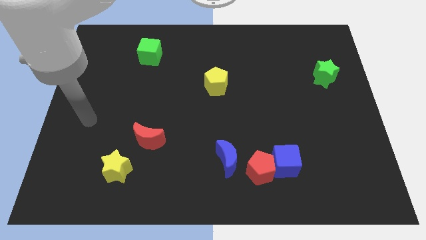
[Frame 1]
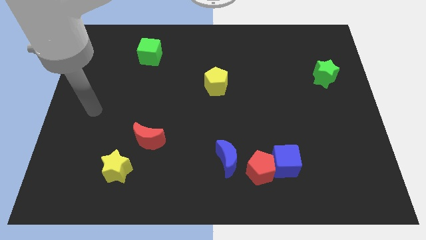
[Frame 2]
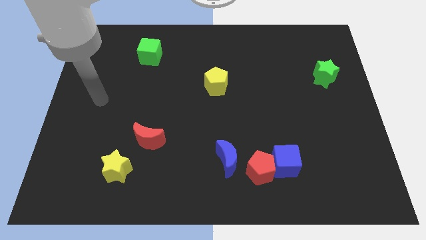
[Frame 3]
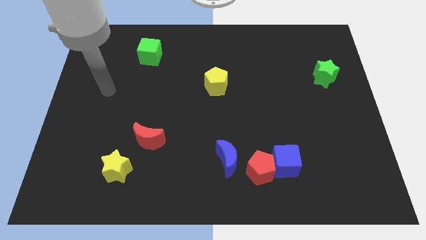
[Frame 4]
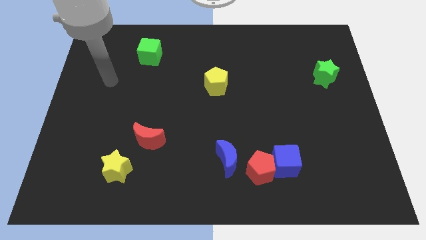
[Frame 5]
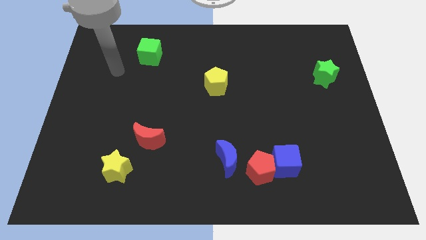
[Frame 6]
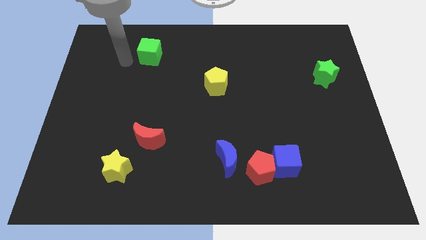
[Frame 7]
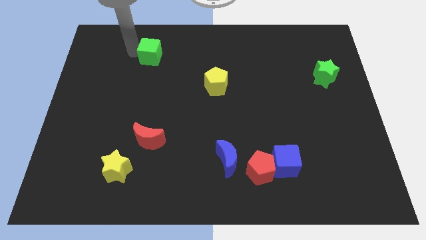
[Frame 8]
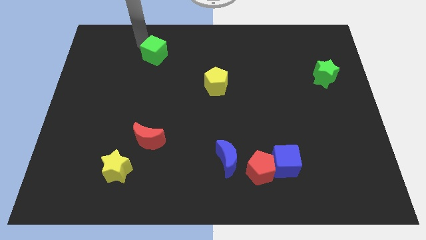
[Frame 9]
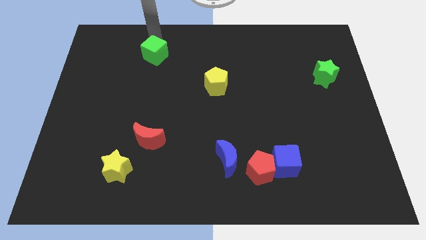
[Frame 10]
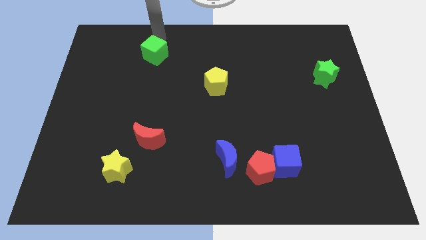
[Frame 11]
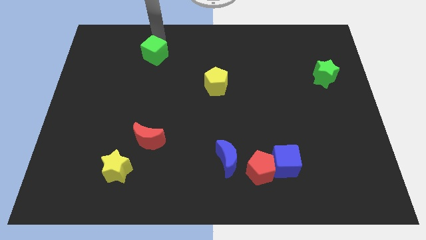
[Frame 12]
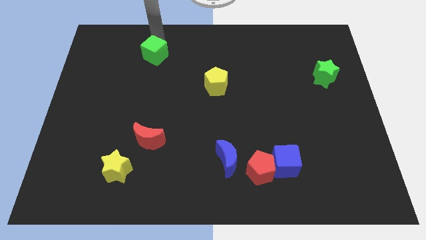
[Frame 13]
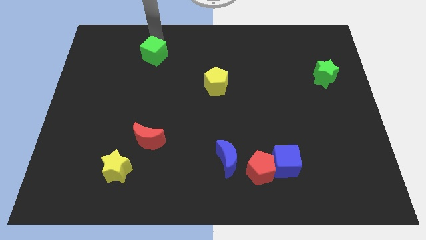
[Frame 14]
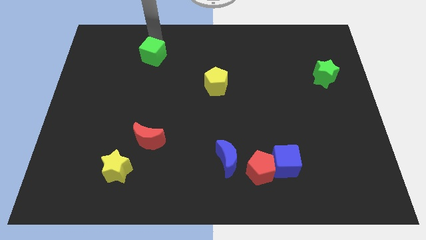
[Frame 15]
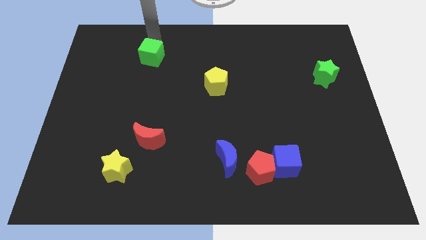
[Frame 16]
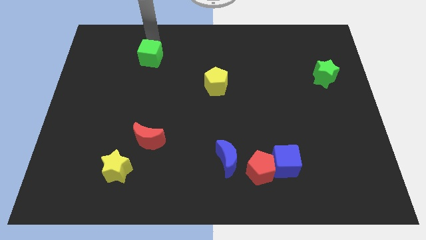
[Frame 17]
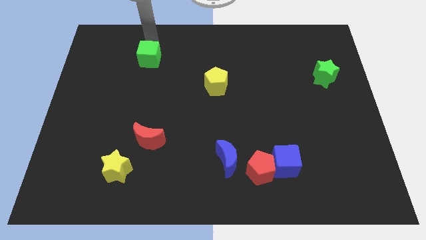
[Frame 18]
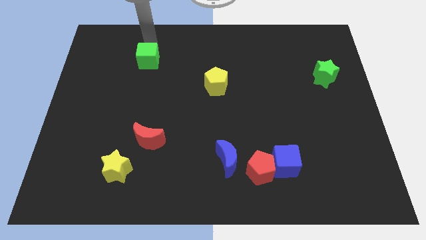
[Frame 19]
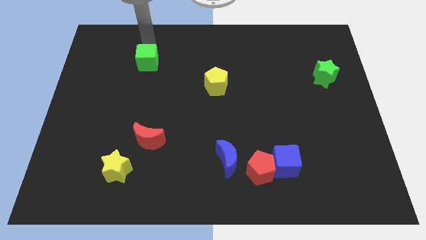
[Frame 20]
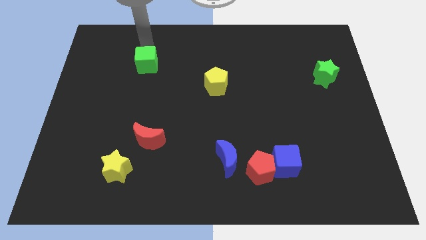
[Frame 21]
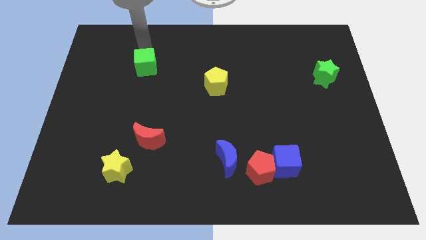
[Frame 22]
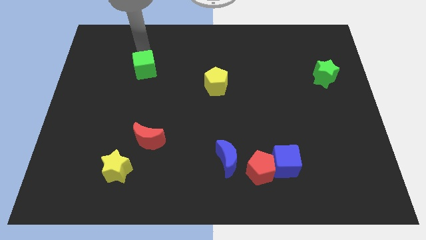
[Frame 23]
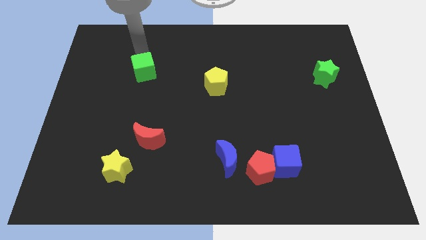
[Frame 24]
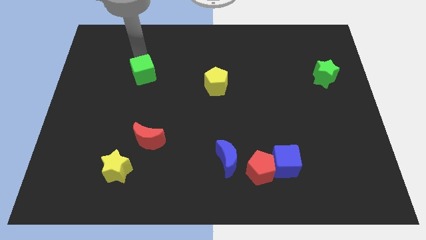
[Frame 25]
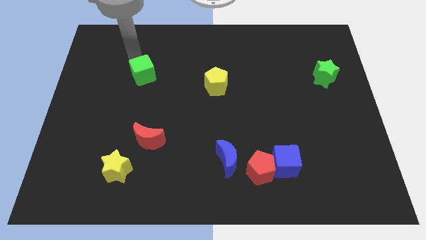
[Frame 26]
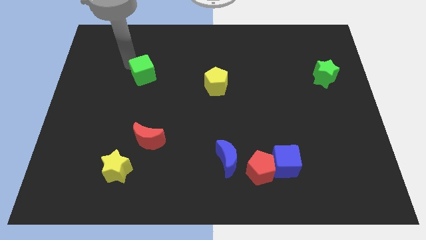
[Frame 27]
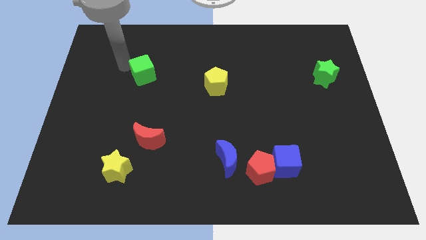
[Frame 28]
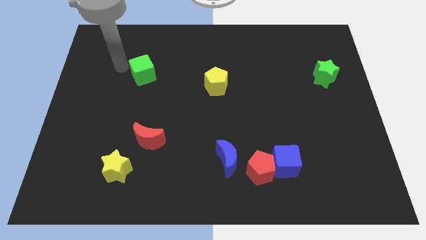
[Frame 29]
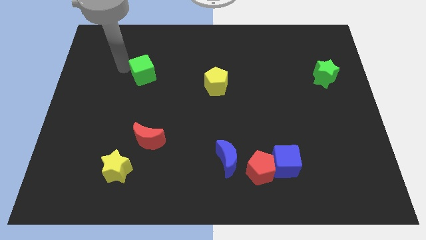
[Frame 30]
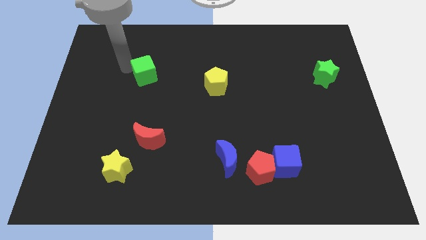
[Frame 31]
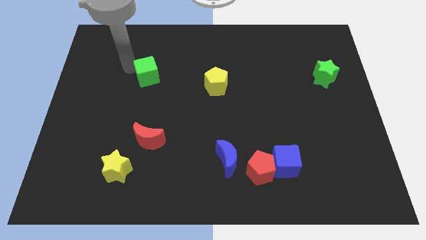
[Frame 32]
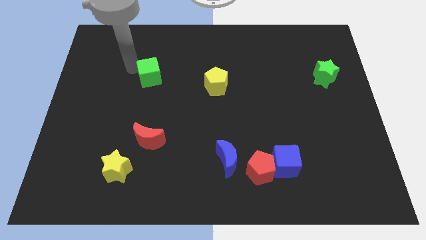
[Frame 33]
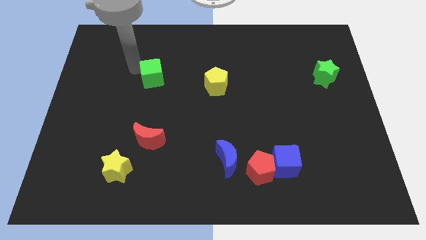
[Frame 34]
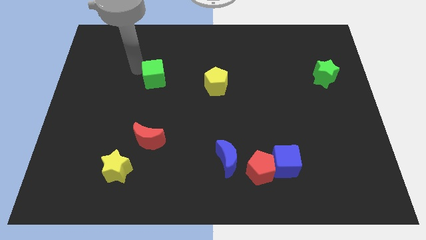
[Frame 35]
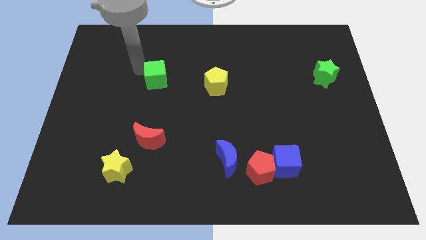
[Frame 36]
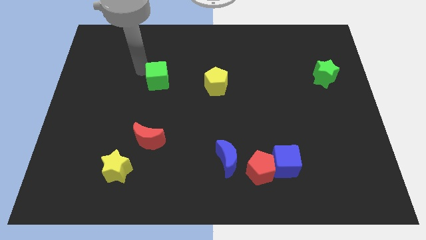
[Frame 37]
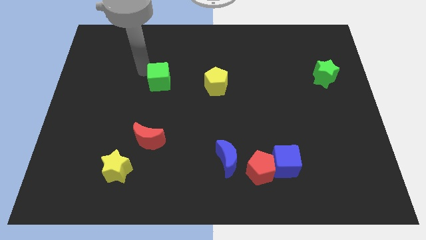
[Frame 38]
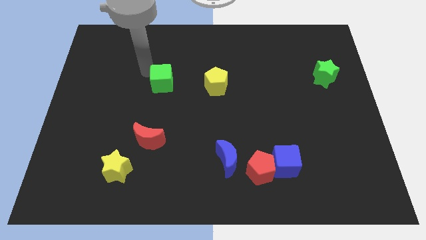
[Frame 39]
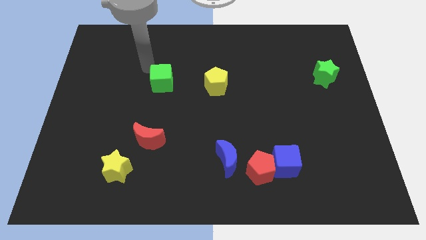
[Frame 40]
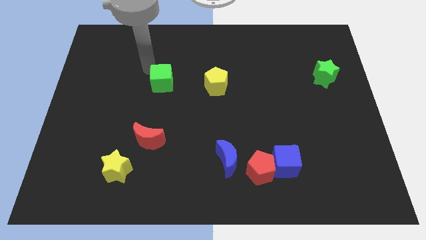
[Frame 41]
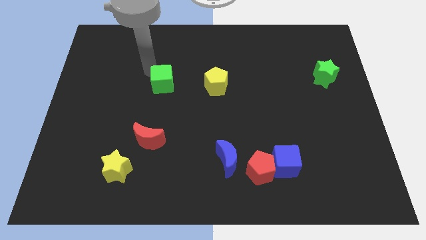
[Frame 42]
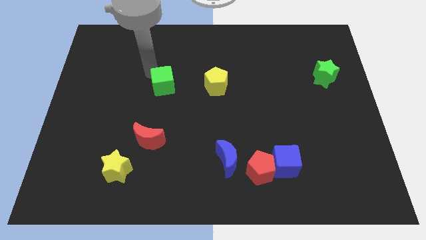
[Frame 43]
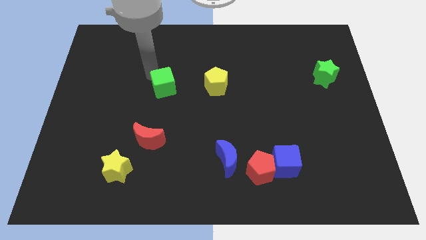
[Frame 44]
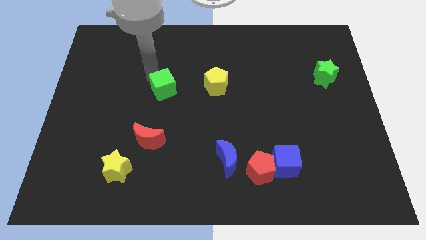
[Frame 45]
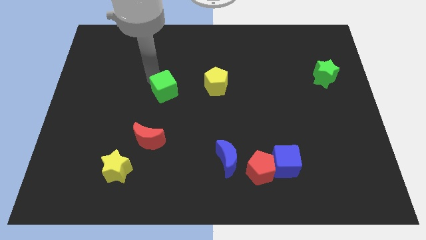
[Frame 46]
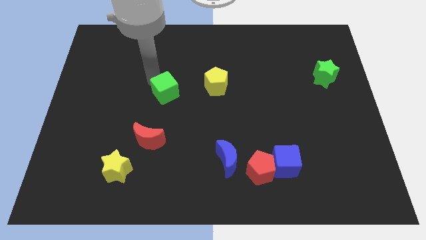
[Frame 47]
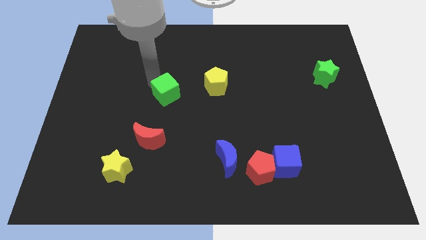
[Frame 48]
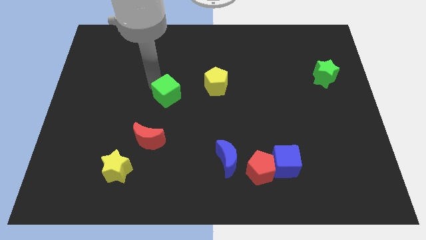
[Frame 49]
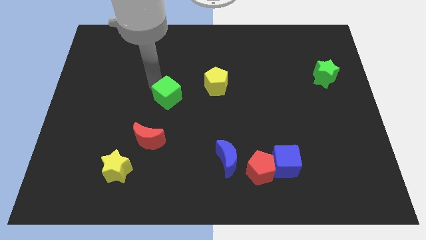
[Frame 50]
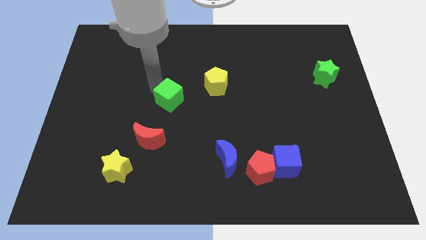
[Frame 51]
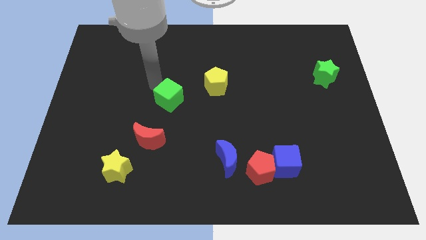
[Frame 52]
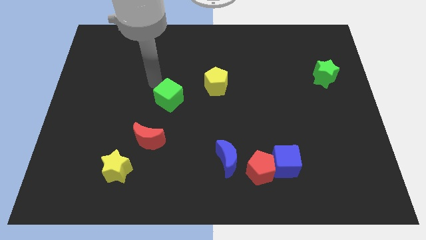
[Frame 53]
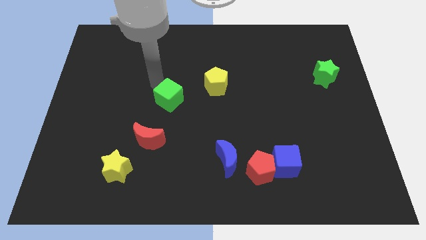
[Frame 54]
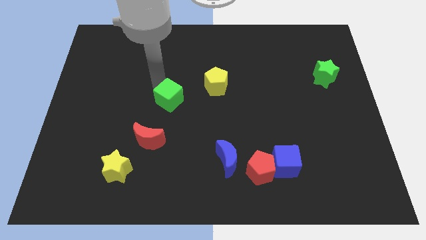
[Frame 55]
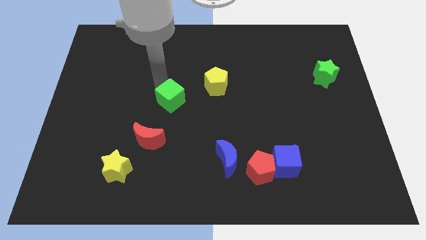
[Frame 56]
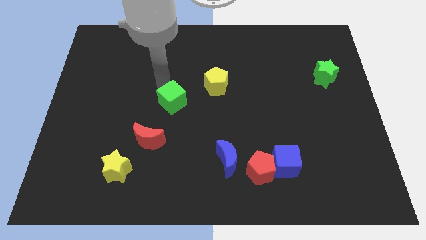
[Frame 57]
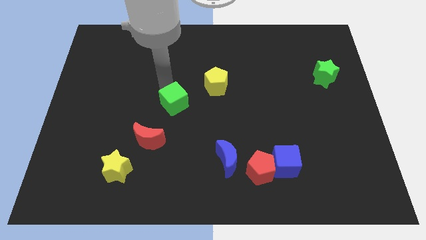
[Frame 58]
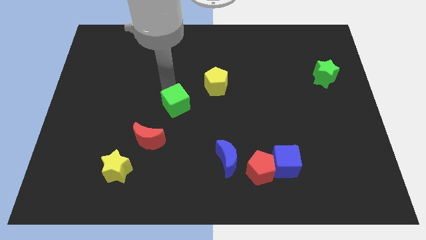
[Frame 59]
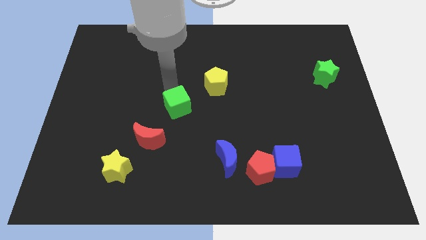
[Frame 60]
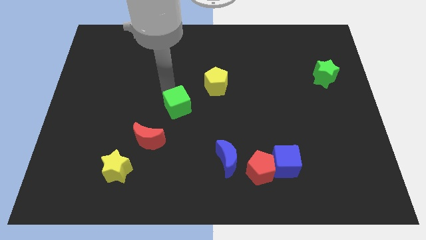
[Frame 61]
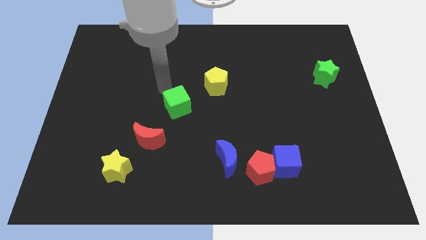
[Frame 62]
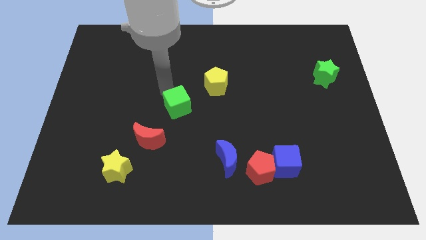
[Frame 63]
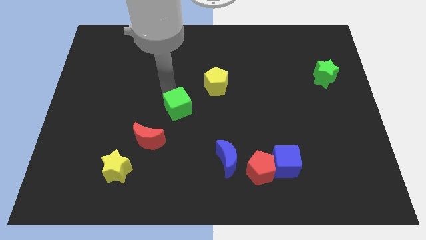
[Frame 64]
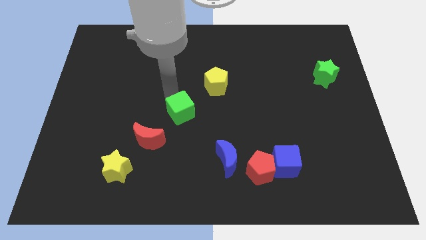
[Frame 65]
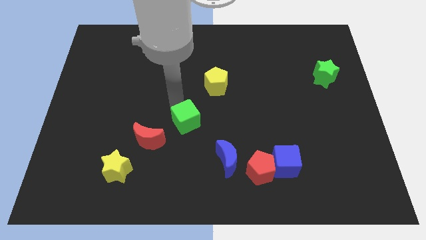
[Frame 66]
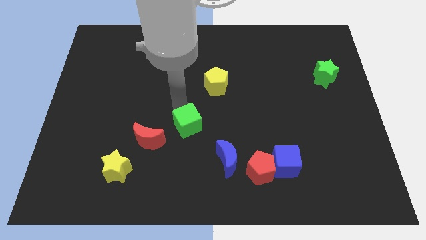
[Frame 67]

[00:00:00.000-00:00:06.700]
push the green cube to the right of the red moon

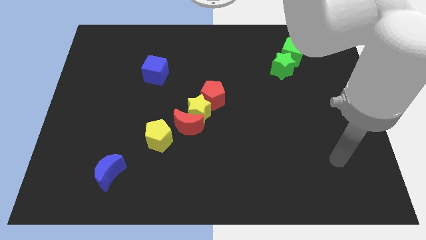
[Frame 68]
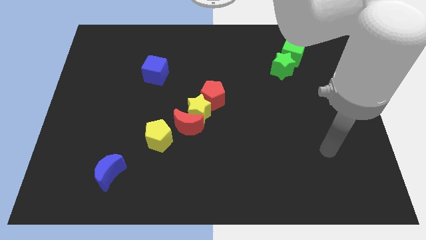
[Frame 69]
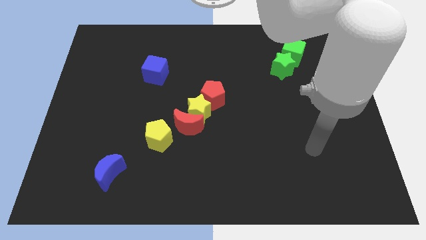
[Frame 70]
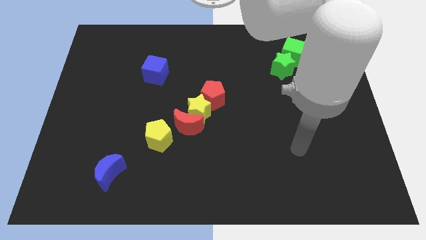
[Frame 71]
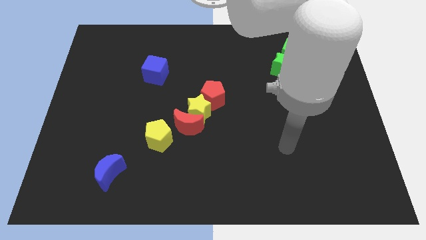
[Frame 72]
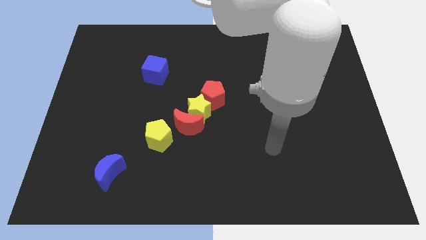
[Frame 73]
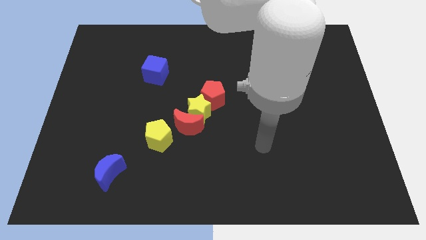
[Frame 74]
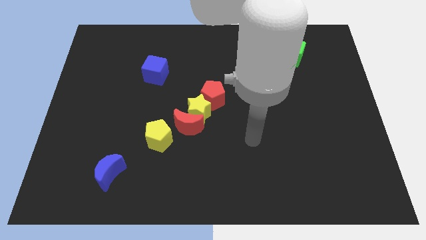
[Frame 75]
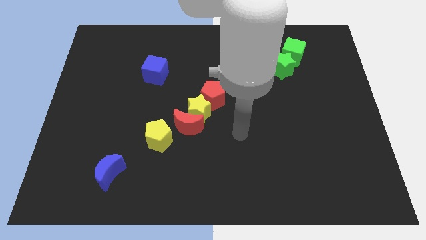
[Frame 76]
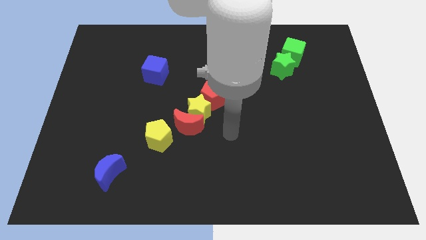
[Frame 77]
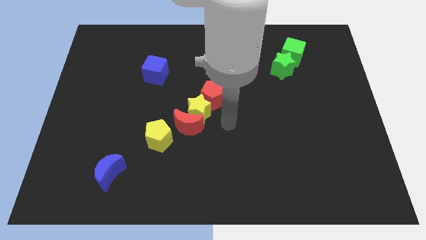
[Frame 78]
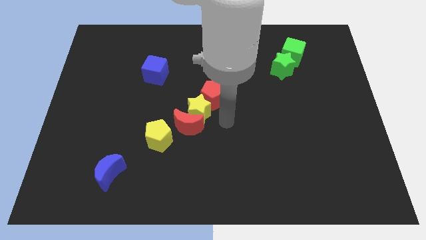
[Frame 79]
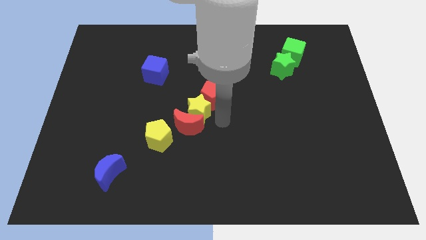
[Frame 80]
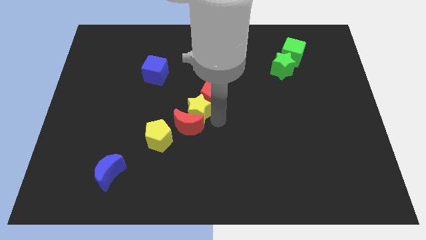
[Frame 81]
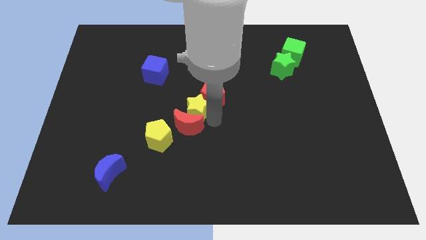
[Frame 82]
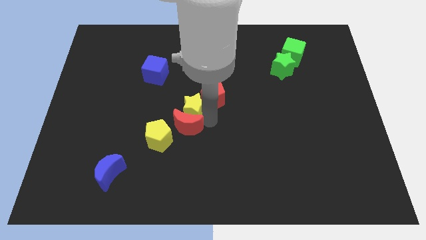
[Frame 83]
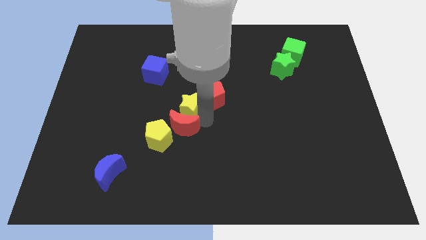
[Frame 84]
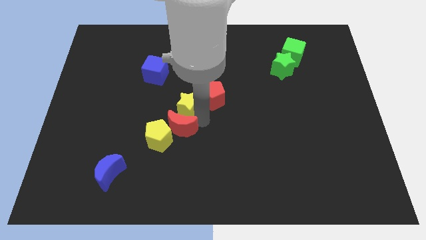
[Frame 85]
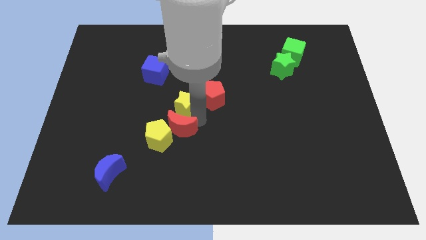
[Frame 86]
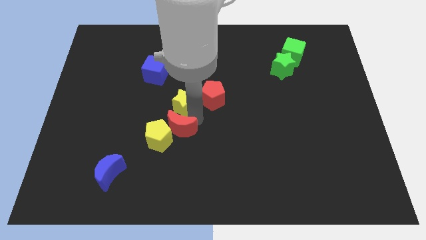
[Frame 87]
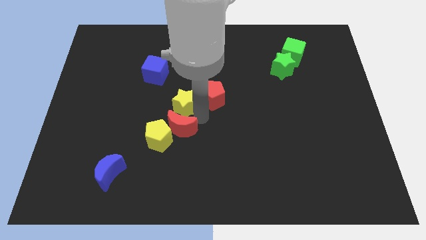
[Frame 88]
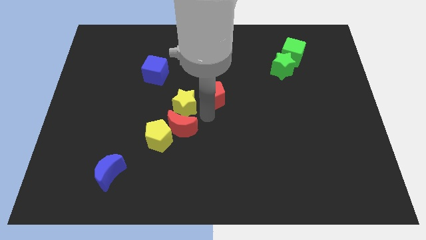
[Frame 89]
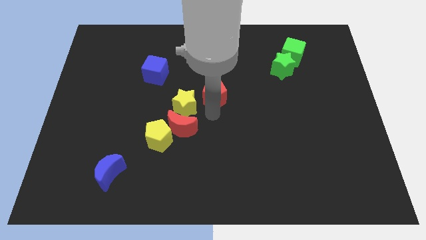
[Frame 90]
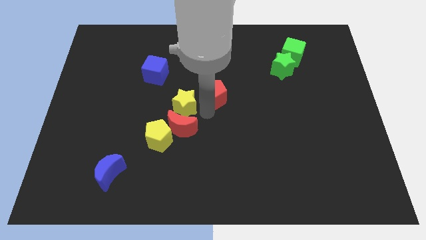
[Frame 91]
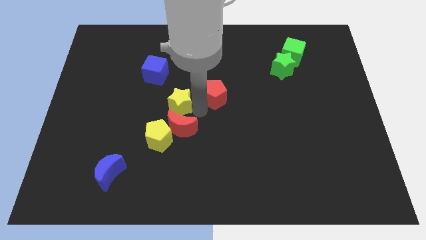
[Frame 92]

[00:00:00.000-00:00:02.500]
push the yellow star above the yellow pentagon
